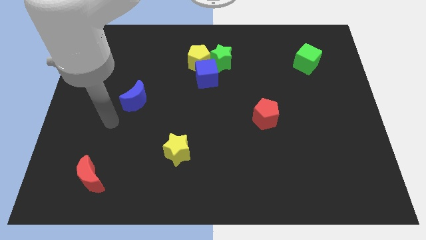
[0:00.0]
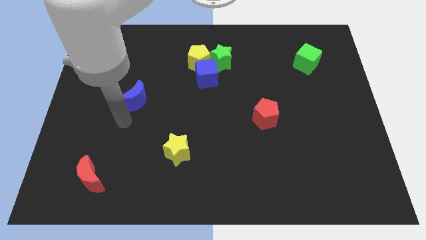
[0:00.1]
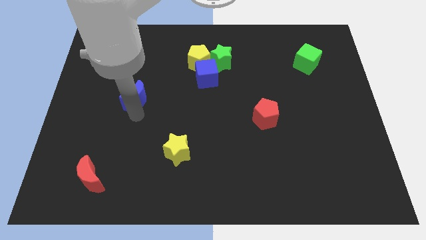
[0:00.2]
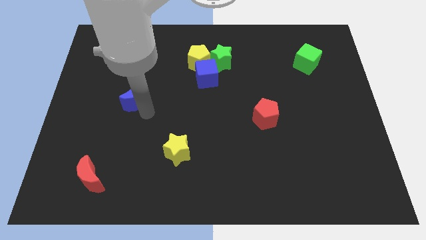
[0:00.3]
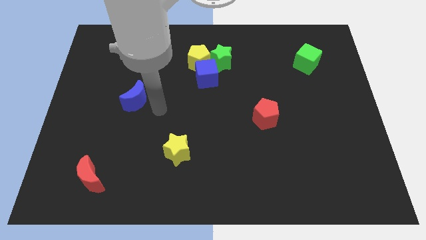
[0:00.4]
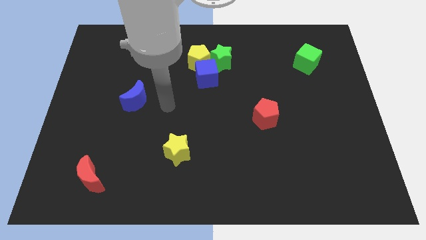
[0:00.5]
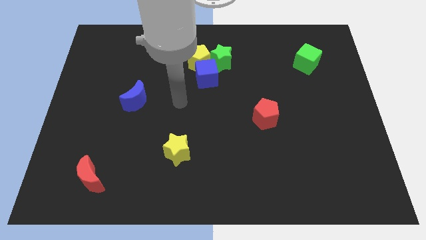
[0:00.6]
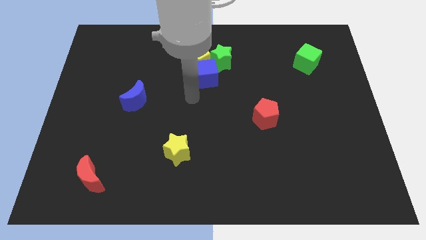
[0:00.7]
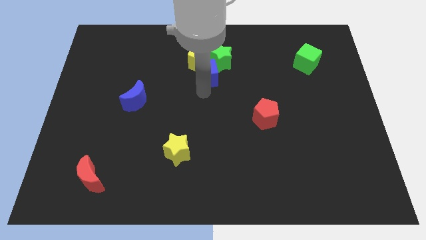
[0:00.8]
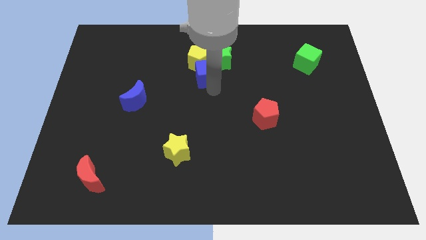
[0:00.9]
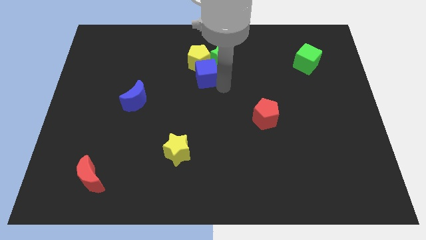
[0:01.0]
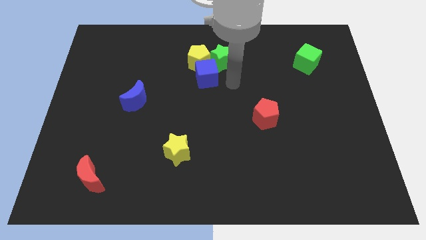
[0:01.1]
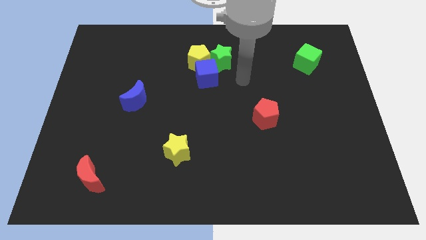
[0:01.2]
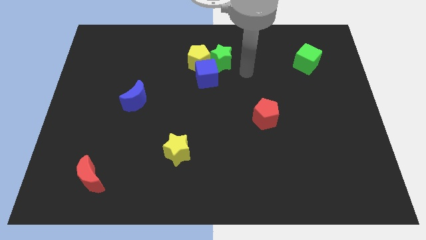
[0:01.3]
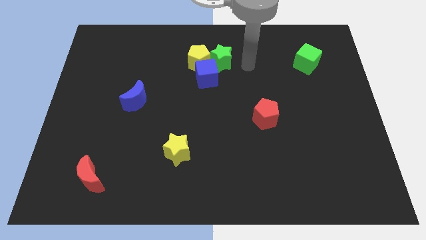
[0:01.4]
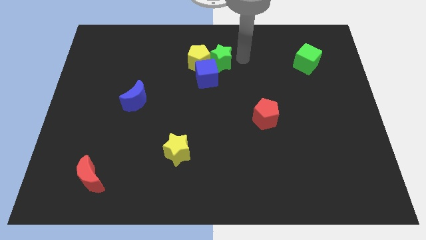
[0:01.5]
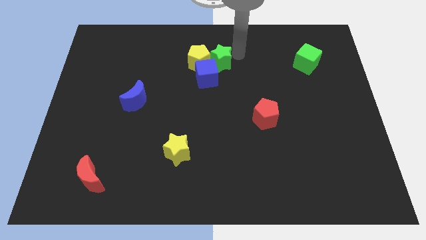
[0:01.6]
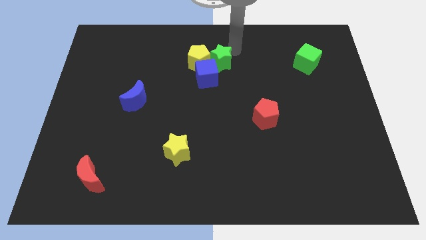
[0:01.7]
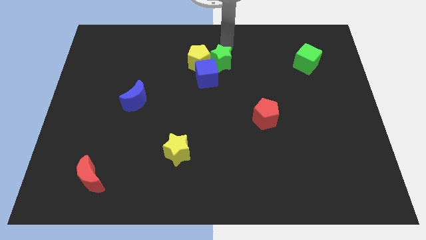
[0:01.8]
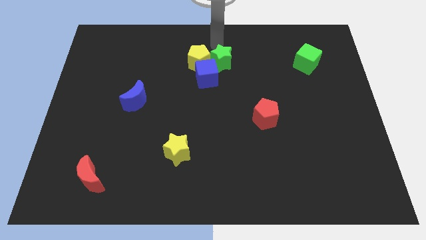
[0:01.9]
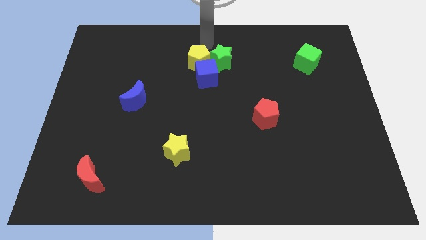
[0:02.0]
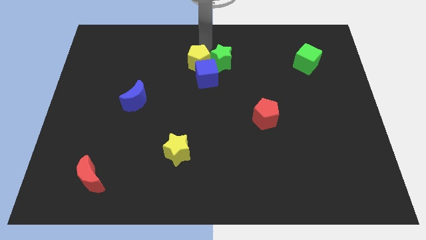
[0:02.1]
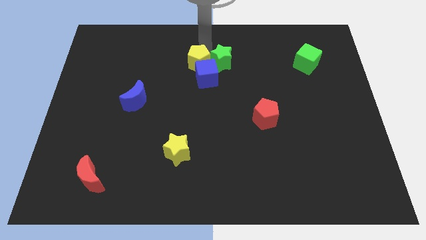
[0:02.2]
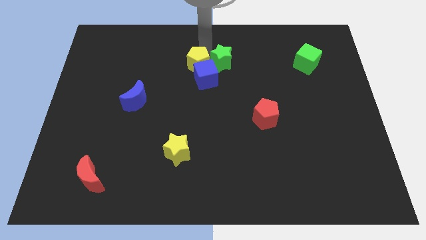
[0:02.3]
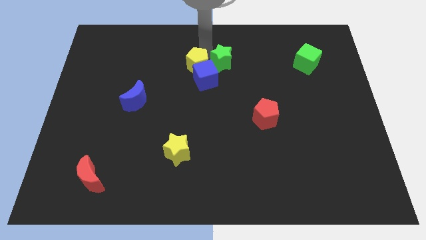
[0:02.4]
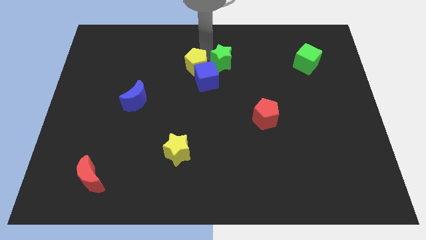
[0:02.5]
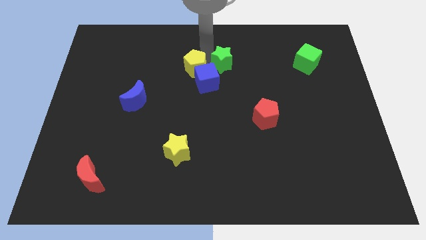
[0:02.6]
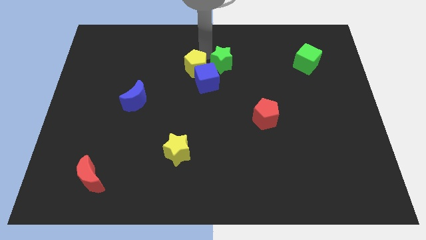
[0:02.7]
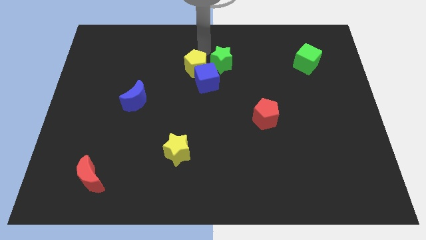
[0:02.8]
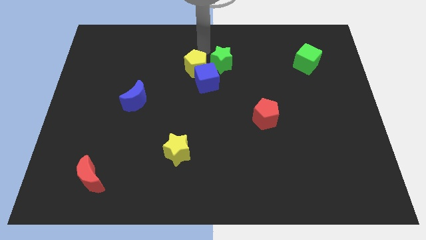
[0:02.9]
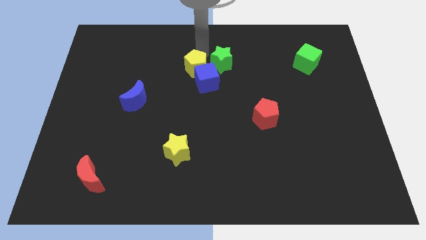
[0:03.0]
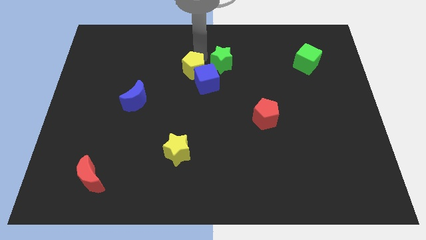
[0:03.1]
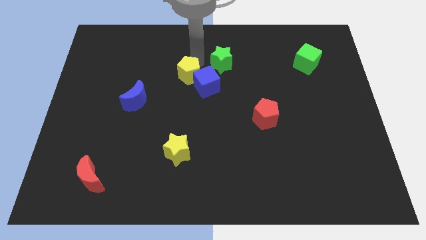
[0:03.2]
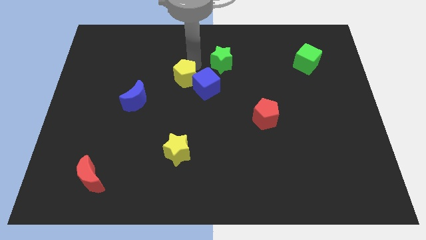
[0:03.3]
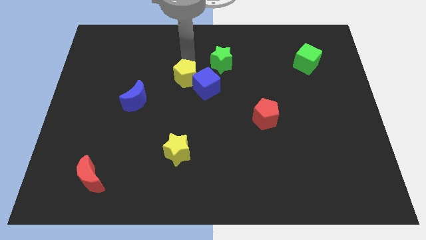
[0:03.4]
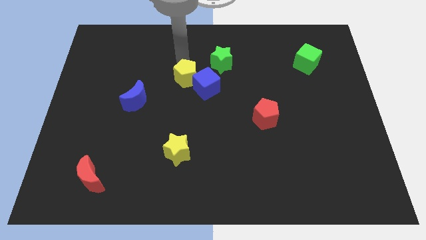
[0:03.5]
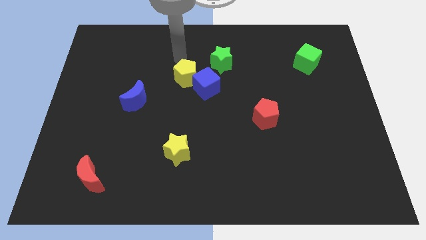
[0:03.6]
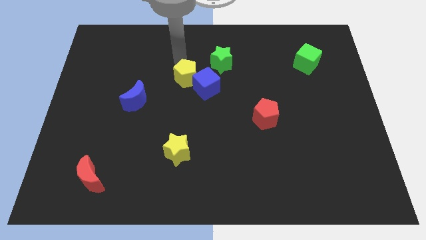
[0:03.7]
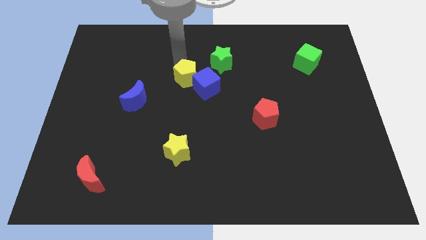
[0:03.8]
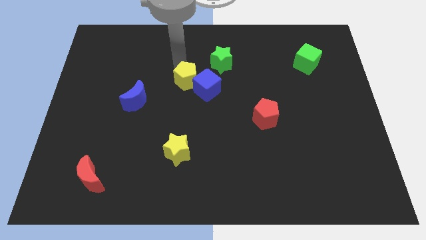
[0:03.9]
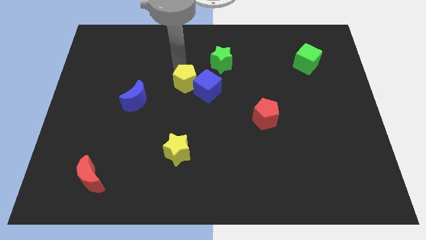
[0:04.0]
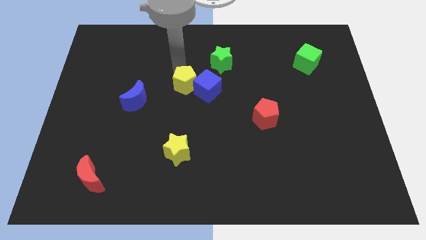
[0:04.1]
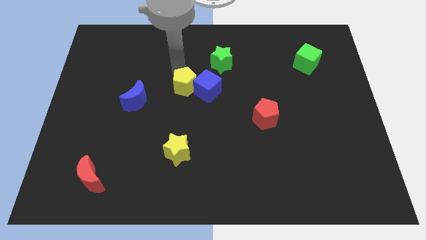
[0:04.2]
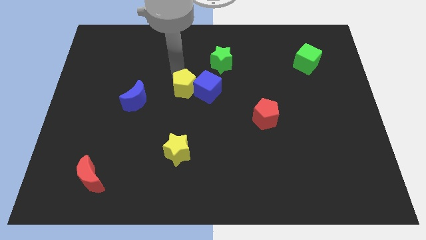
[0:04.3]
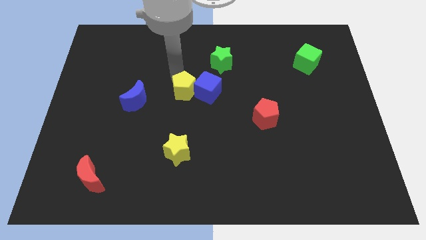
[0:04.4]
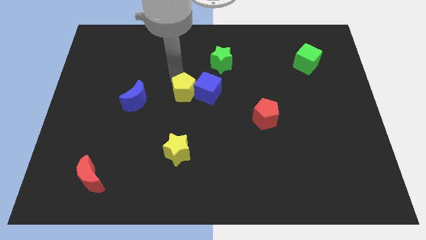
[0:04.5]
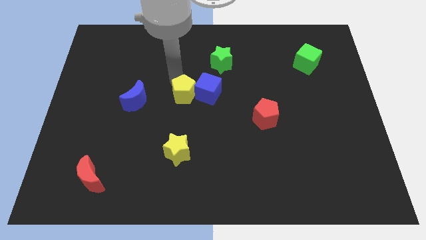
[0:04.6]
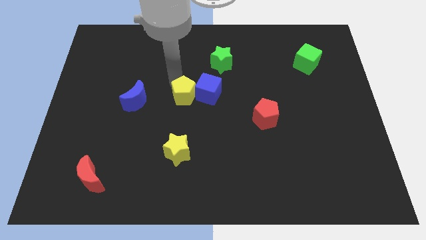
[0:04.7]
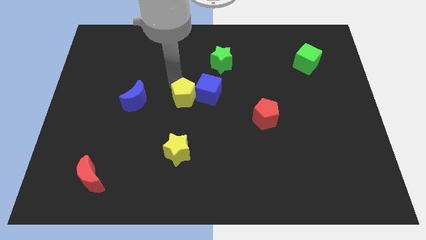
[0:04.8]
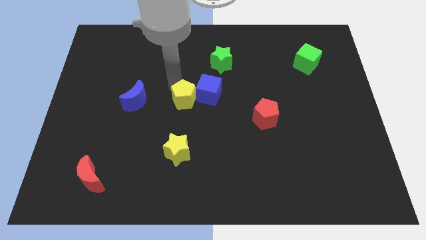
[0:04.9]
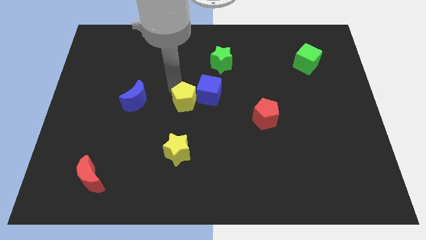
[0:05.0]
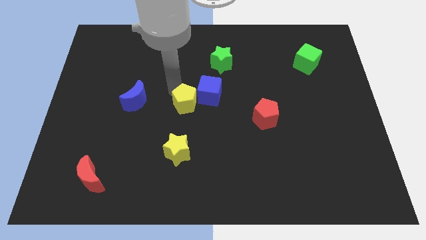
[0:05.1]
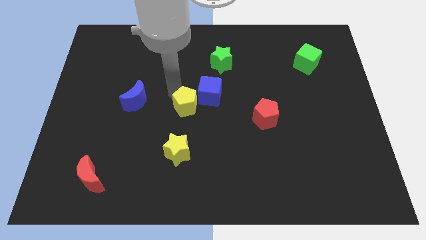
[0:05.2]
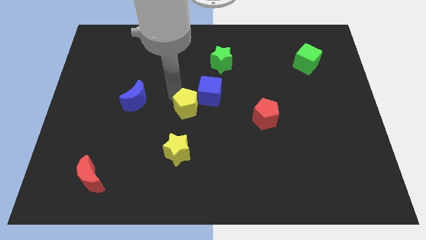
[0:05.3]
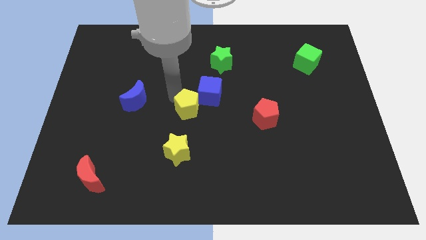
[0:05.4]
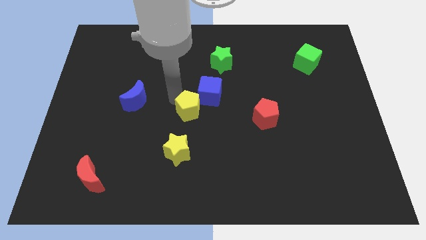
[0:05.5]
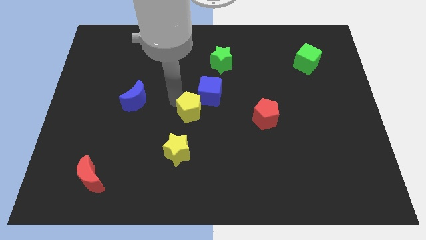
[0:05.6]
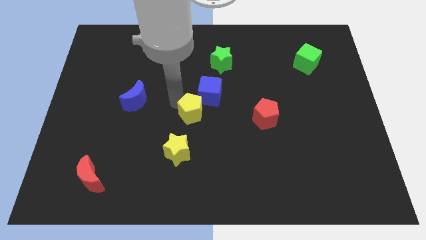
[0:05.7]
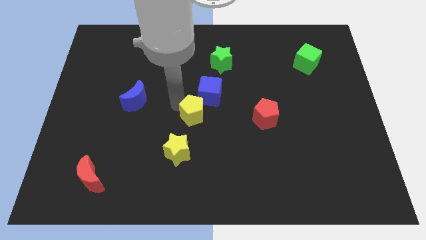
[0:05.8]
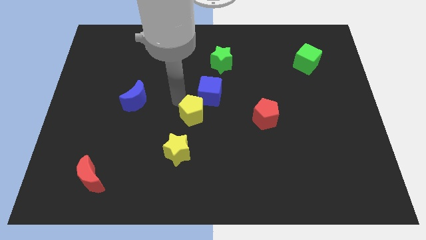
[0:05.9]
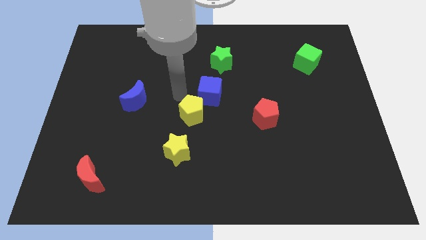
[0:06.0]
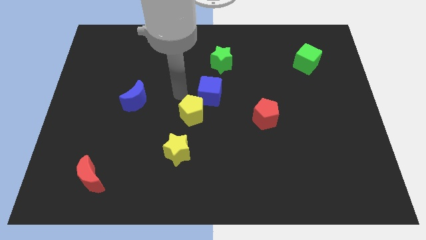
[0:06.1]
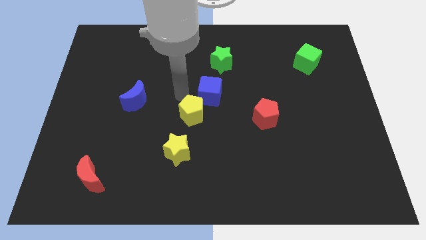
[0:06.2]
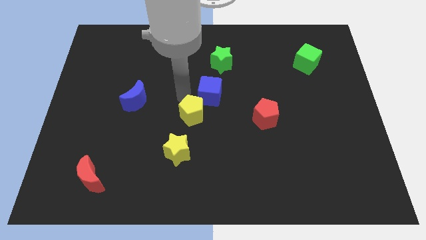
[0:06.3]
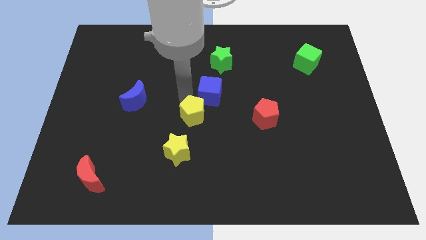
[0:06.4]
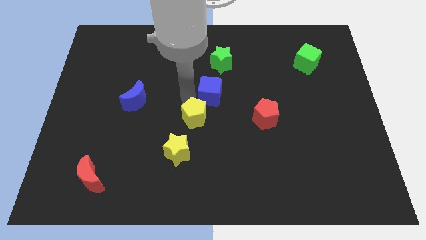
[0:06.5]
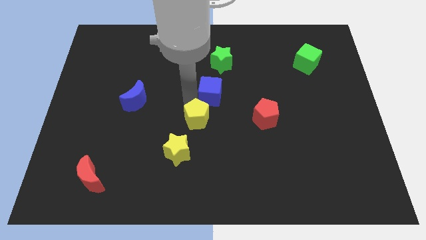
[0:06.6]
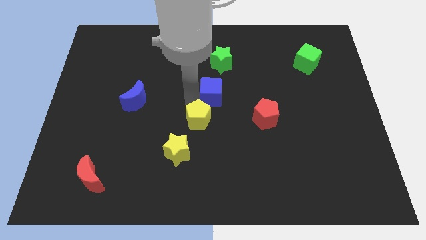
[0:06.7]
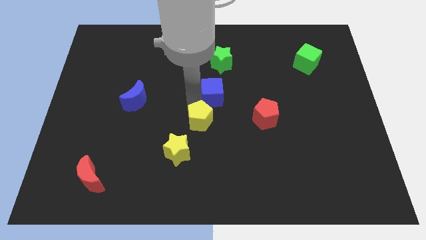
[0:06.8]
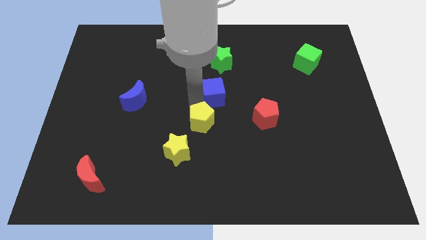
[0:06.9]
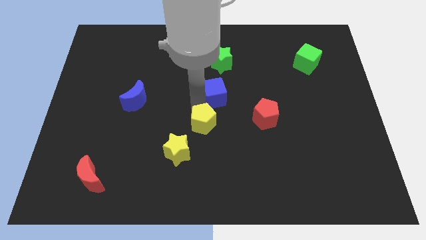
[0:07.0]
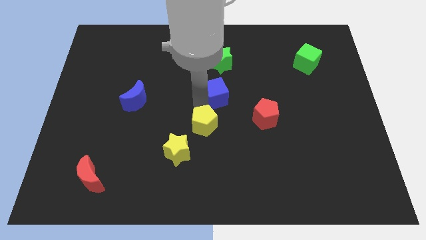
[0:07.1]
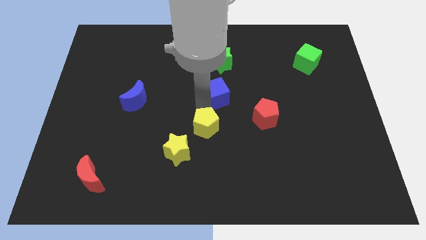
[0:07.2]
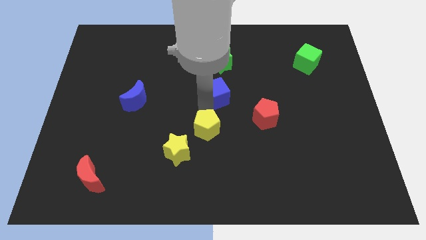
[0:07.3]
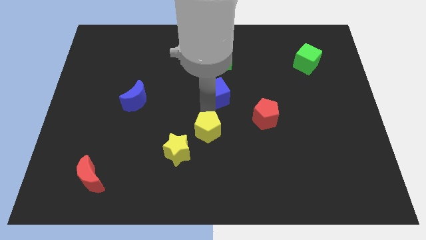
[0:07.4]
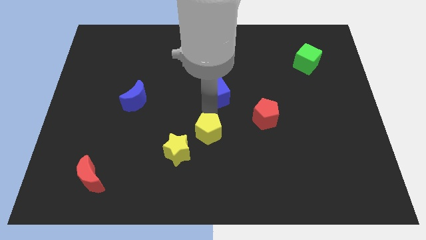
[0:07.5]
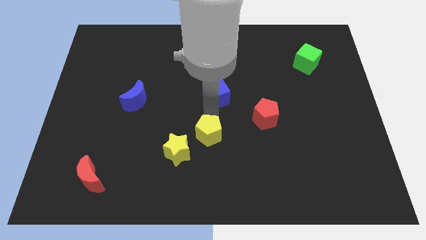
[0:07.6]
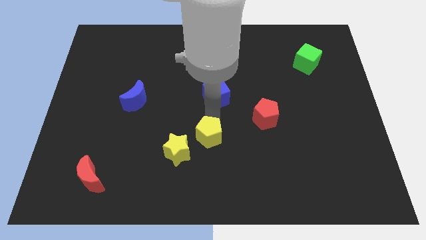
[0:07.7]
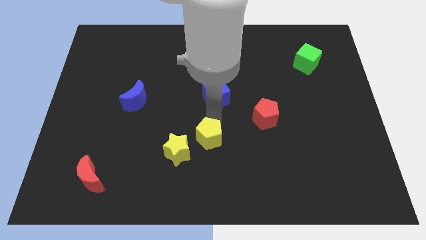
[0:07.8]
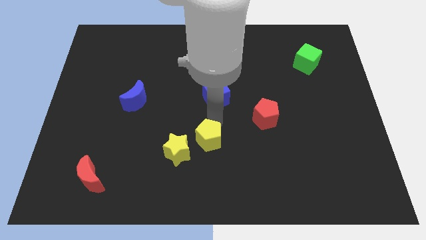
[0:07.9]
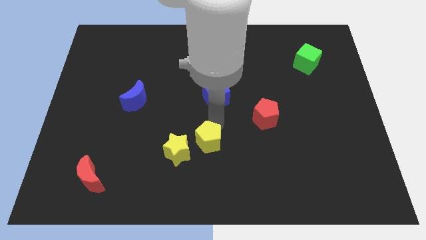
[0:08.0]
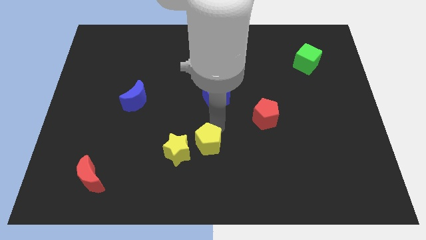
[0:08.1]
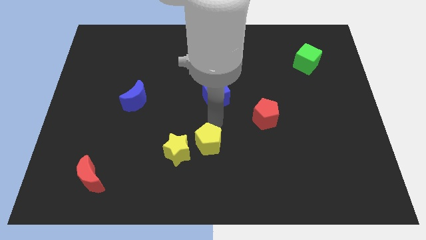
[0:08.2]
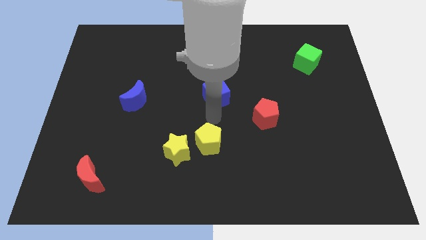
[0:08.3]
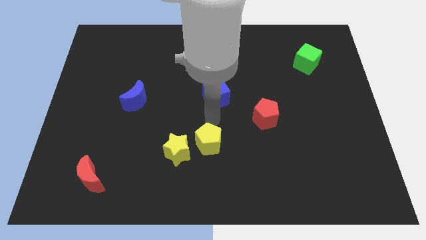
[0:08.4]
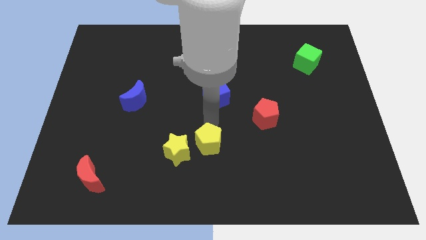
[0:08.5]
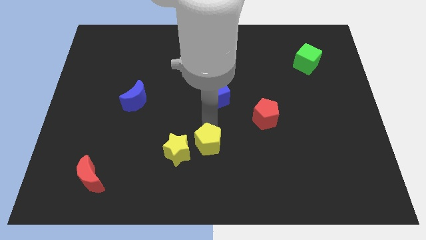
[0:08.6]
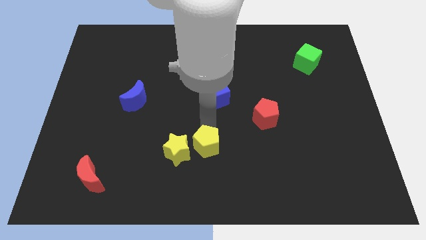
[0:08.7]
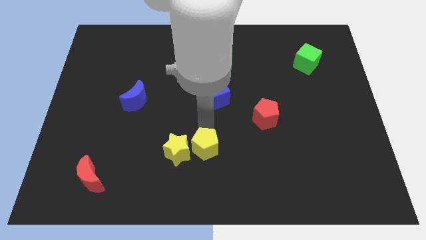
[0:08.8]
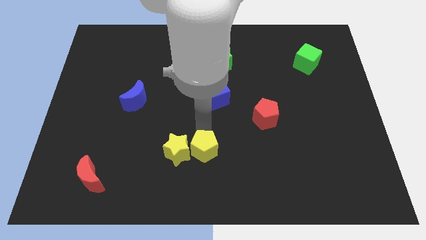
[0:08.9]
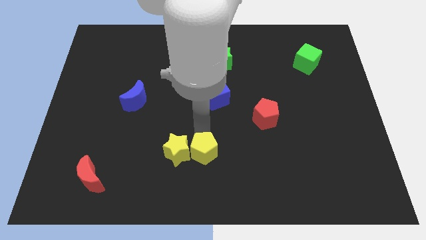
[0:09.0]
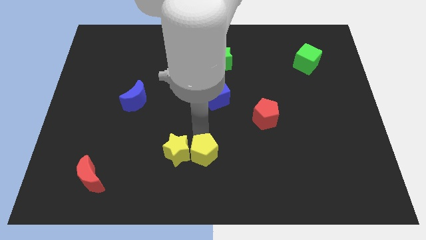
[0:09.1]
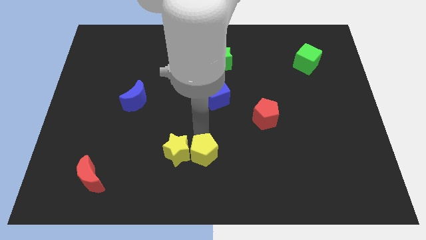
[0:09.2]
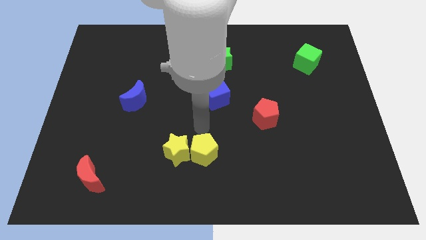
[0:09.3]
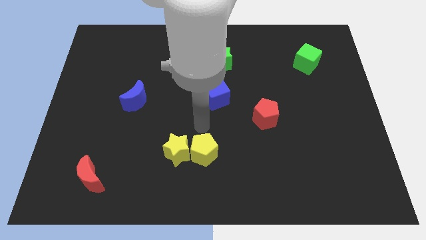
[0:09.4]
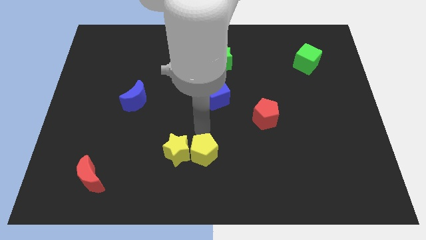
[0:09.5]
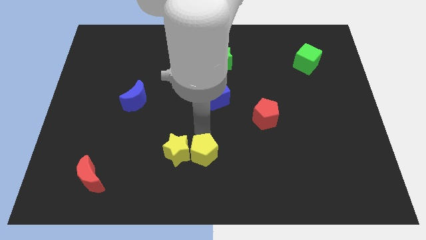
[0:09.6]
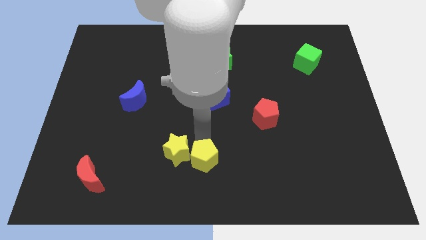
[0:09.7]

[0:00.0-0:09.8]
slide the yellow pentagon to the bottom side
